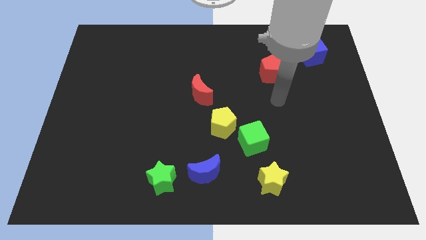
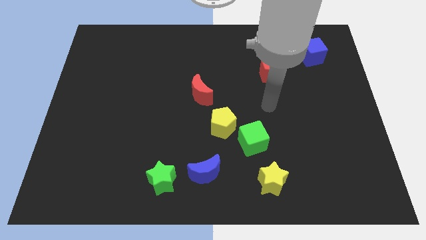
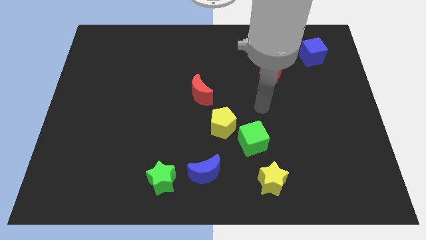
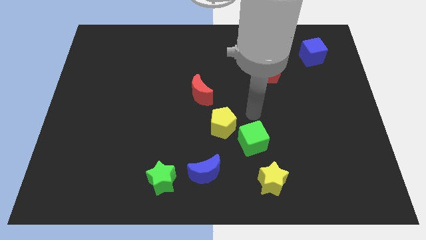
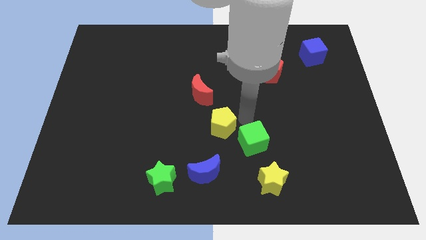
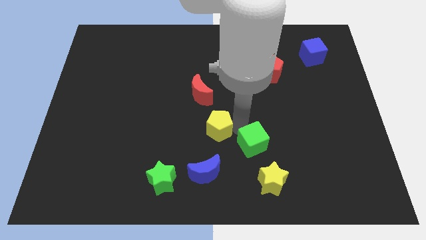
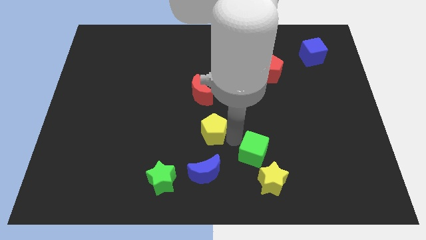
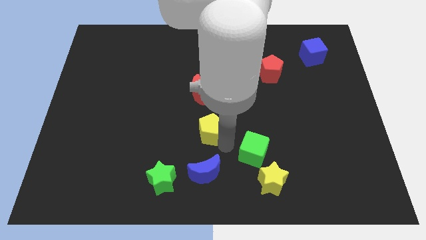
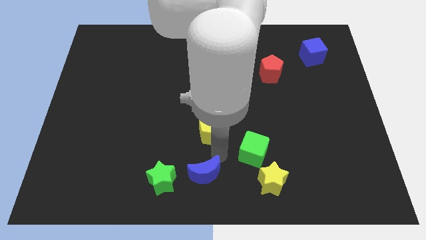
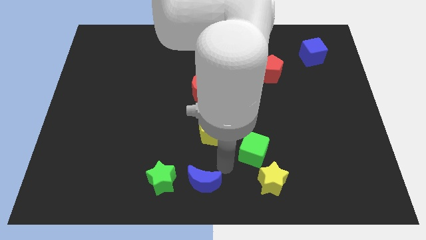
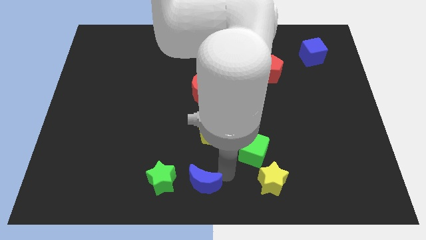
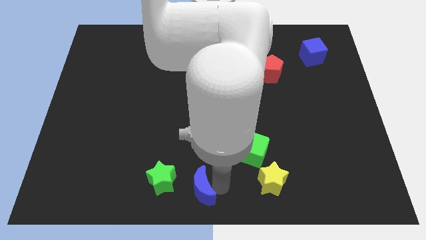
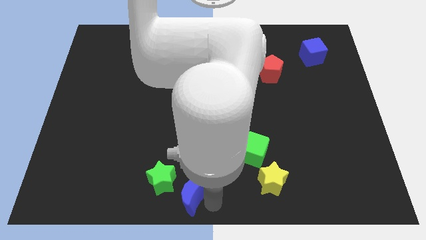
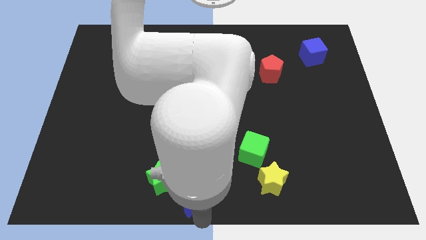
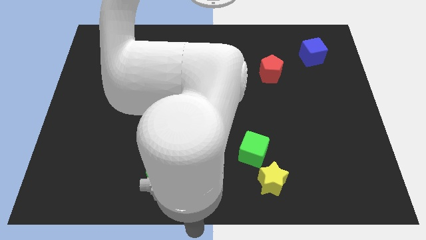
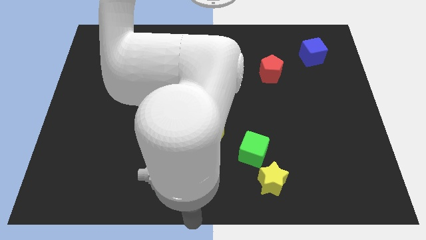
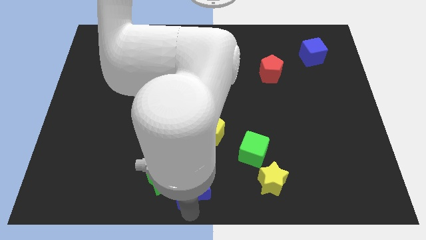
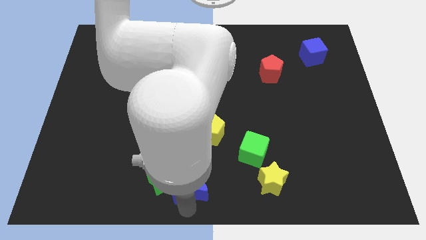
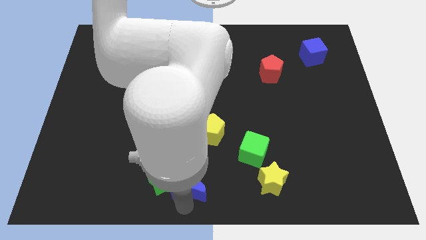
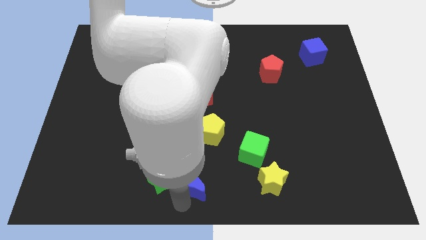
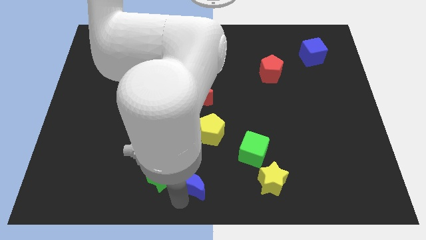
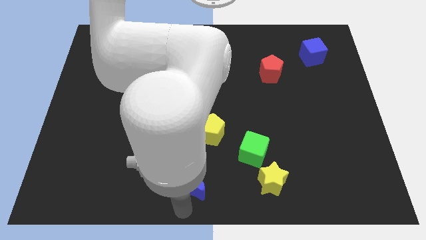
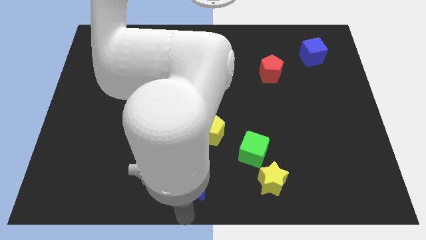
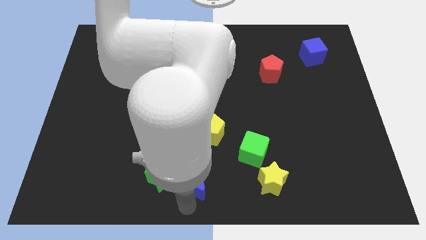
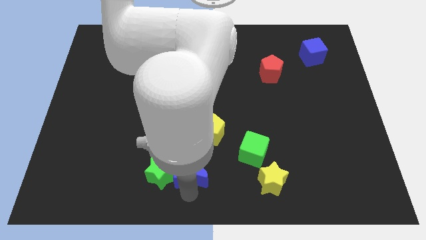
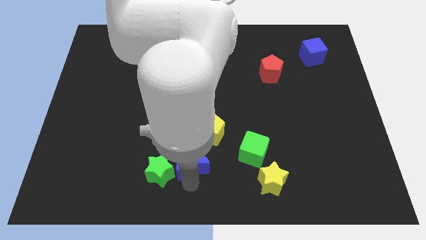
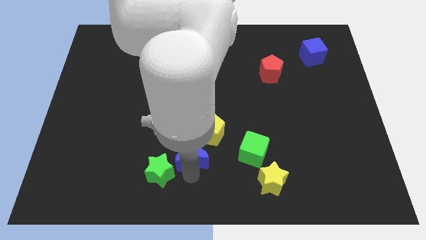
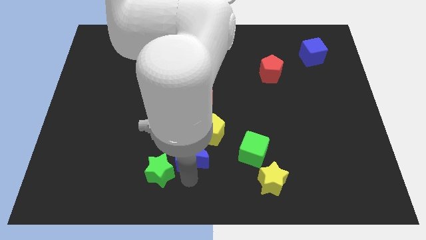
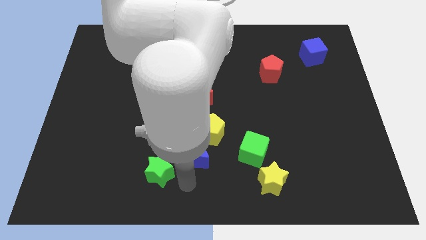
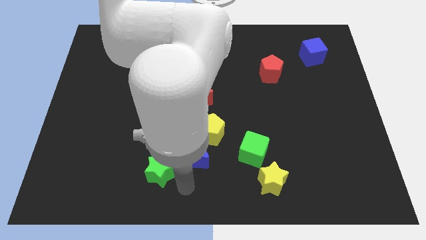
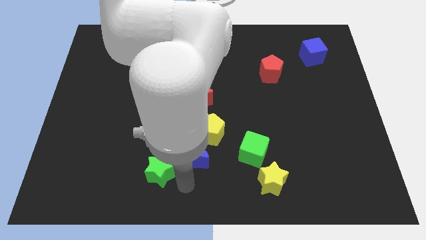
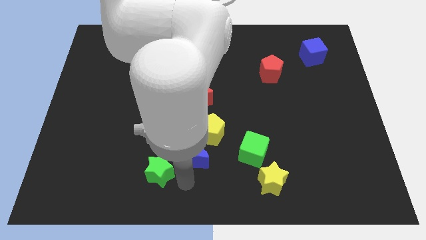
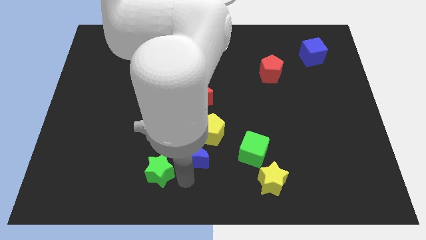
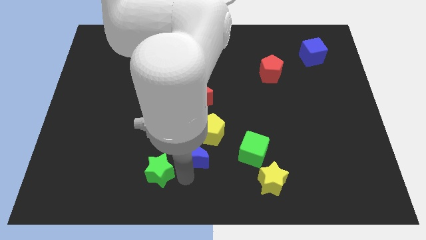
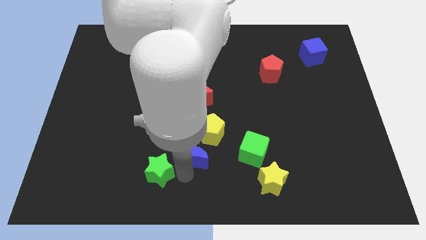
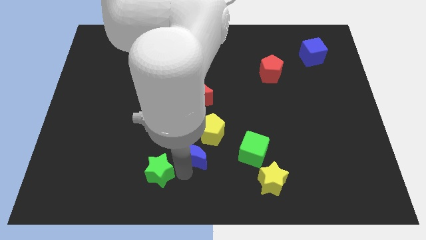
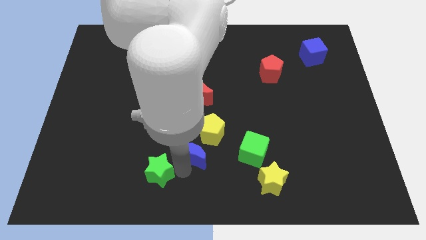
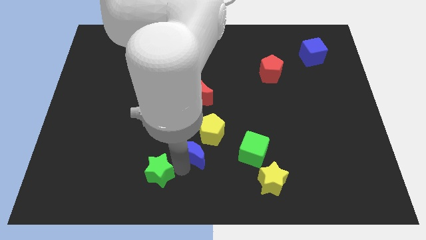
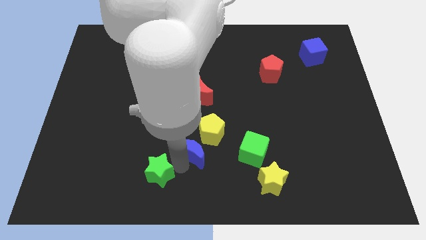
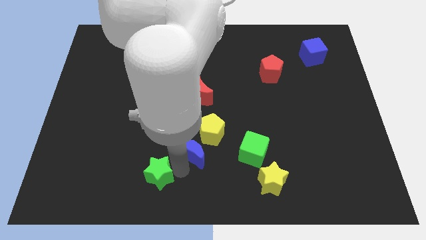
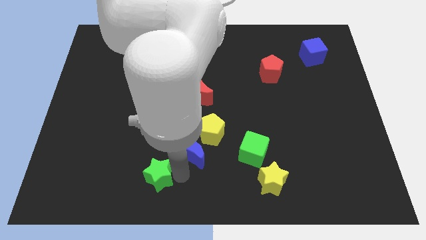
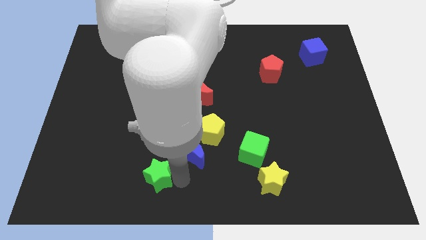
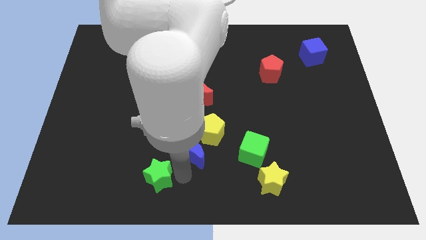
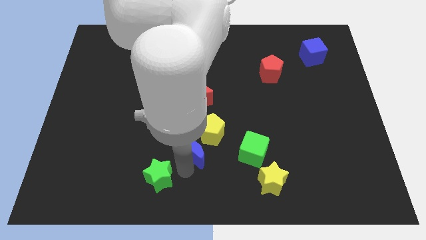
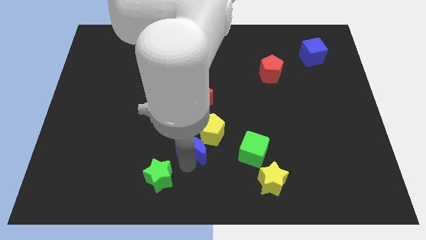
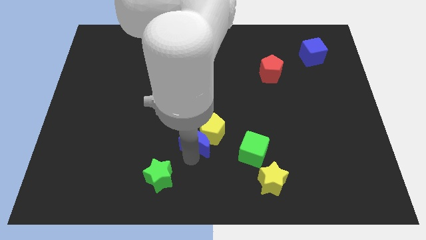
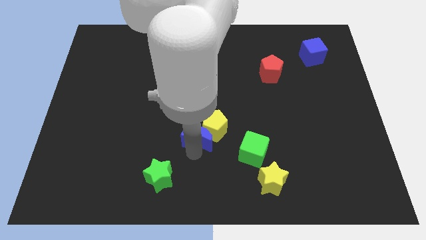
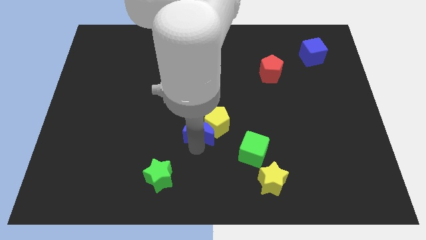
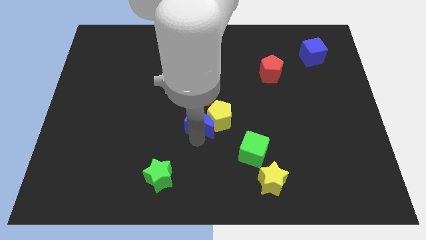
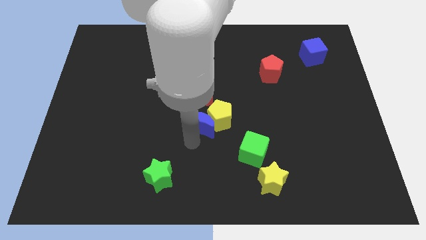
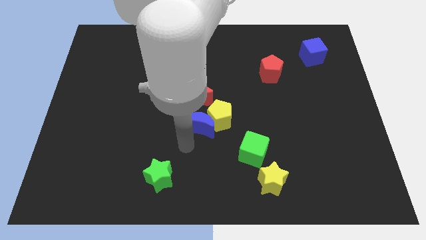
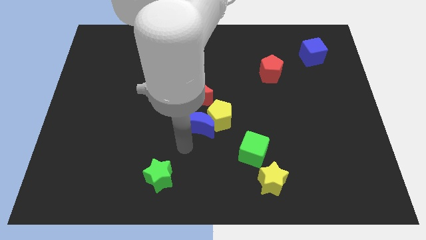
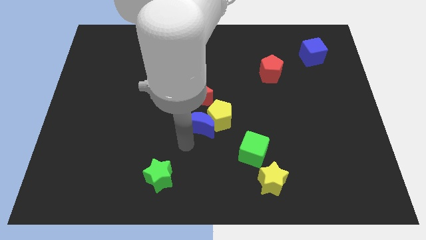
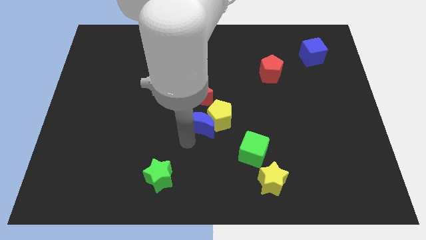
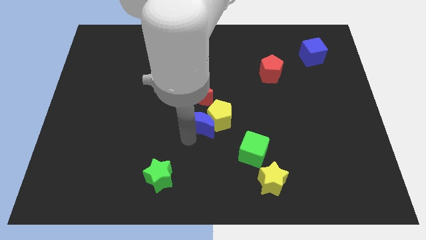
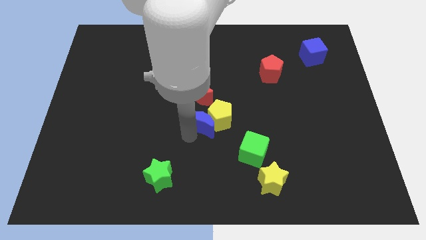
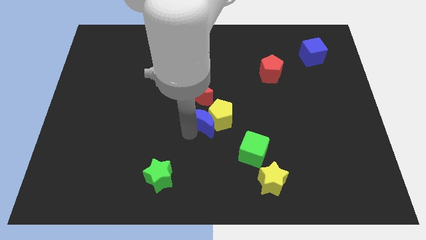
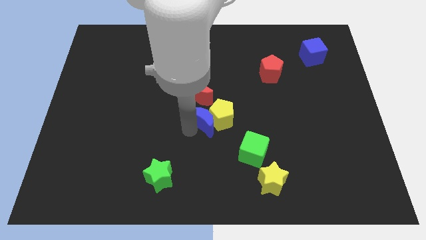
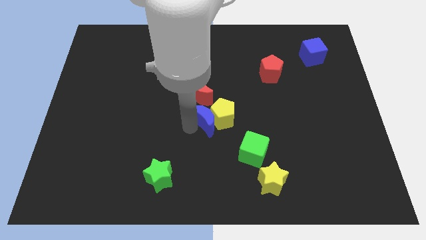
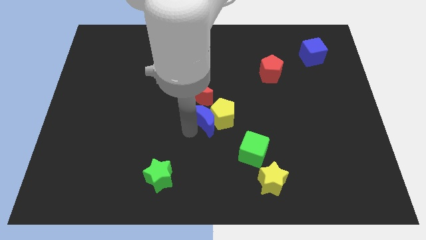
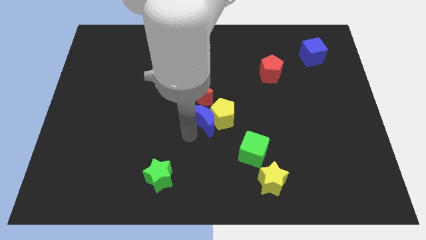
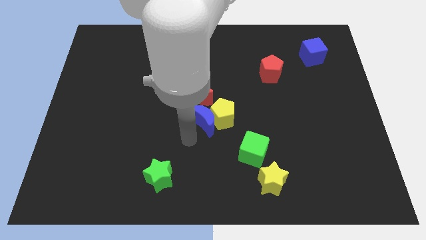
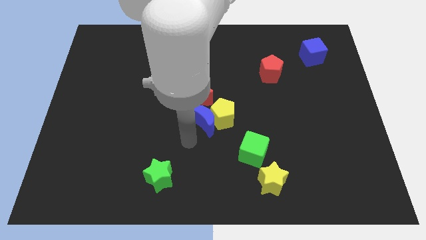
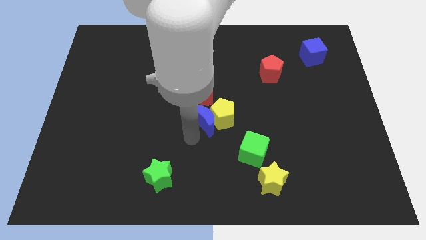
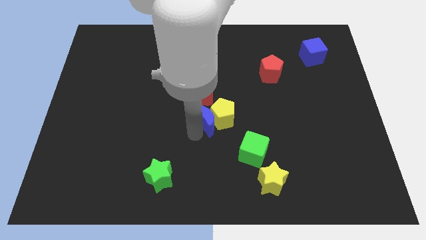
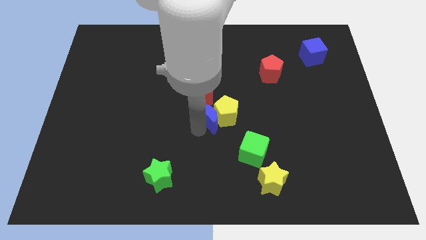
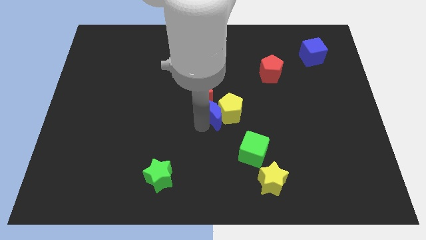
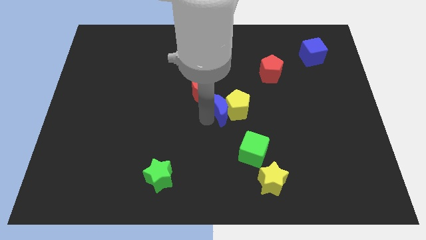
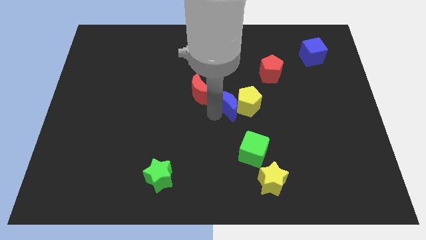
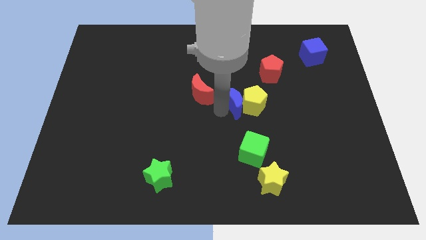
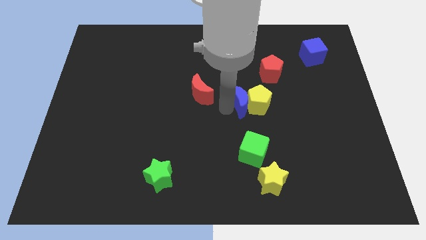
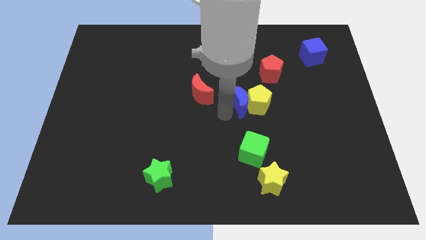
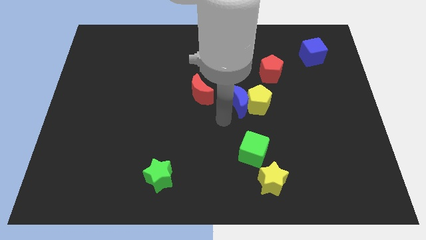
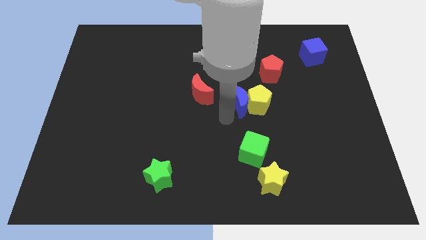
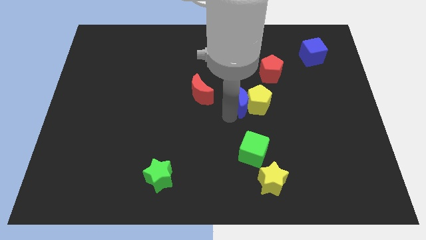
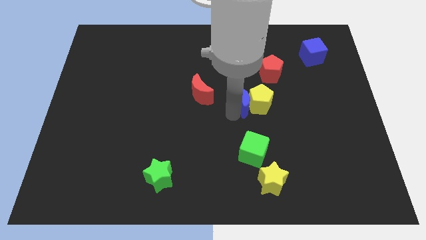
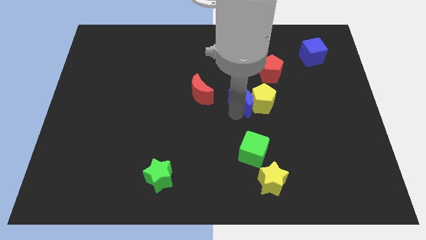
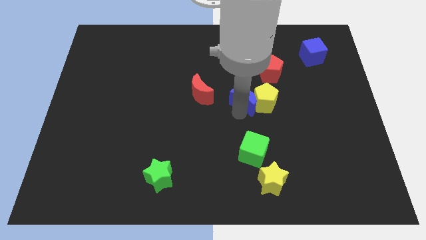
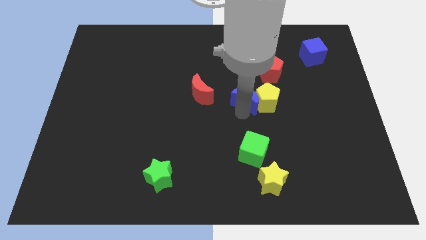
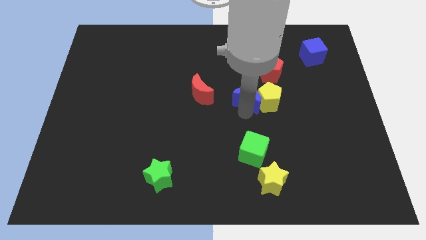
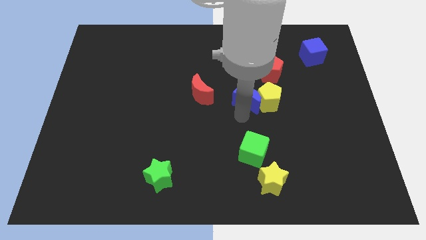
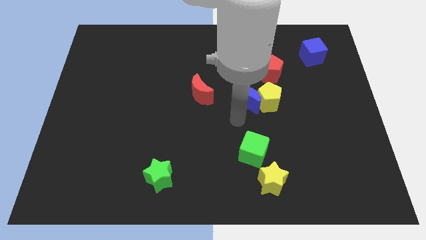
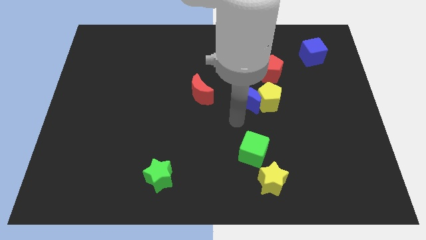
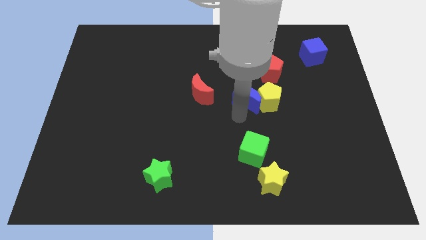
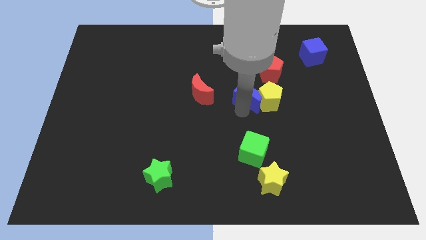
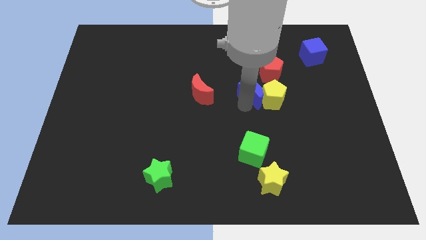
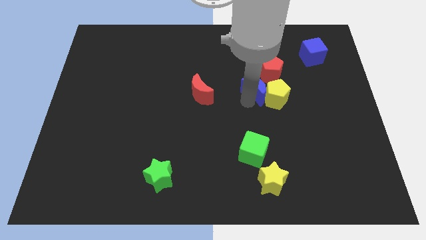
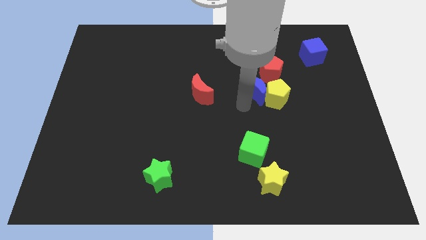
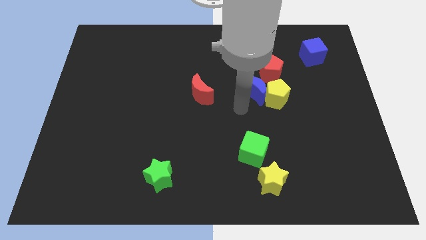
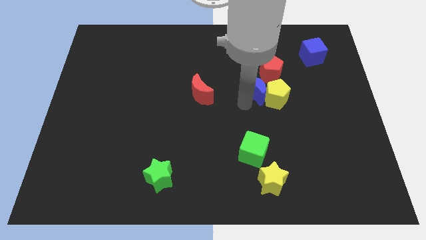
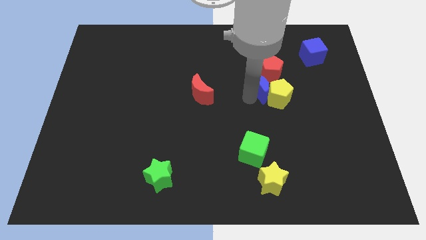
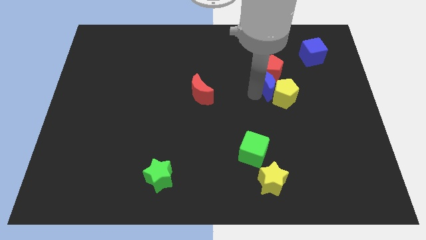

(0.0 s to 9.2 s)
push the blue moon towards the red pentagon
